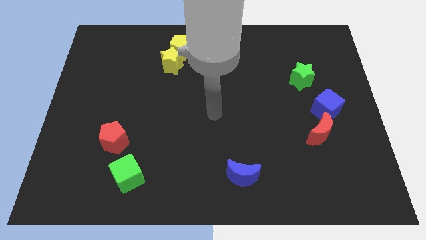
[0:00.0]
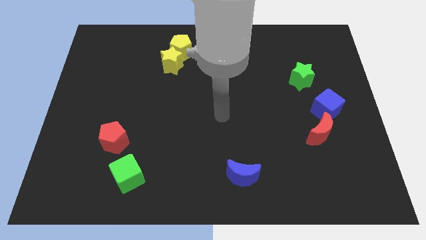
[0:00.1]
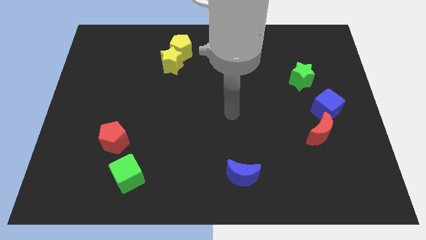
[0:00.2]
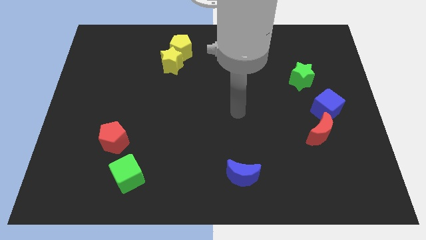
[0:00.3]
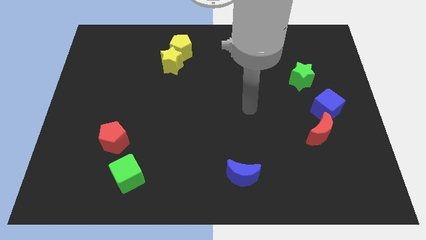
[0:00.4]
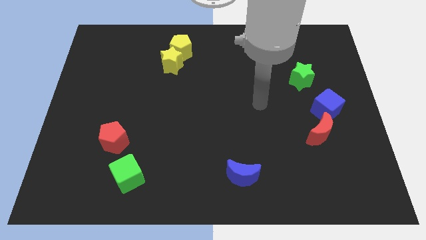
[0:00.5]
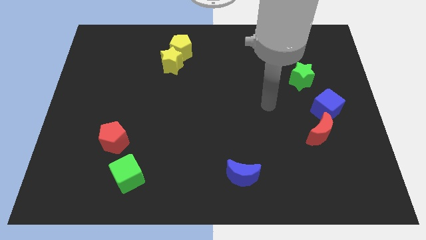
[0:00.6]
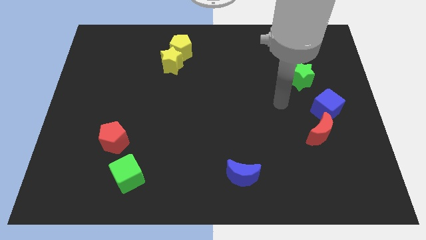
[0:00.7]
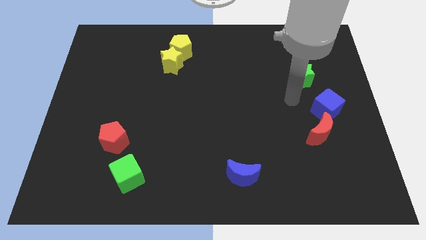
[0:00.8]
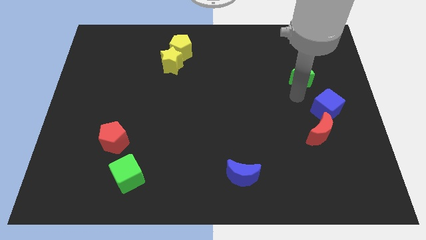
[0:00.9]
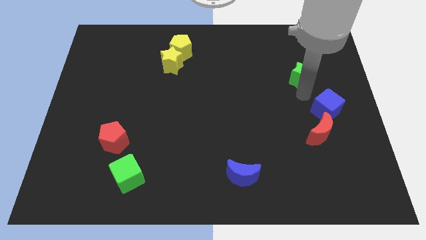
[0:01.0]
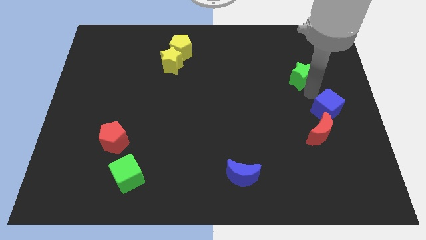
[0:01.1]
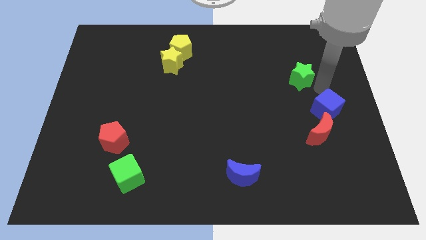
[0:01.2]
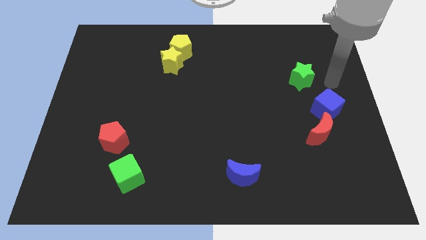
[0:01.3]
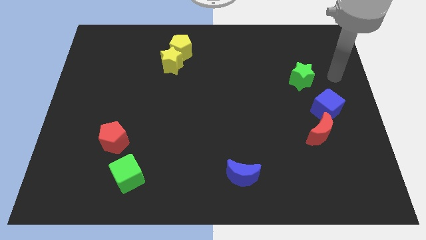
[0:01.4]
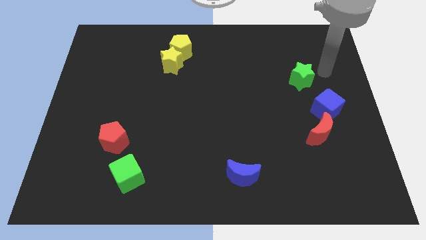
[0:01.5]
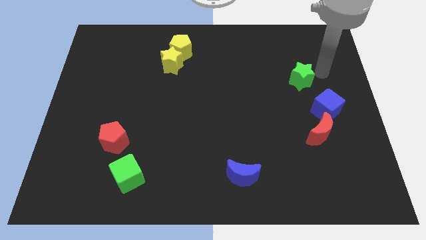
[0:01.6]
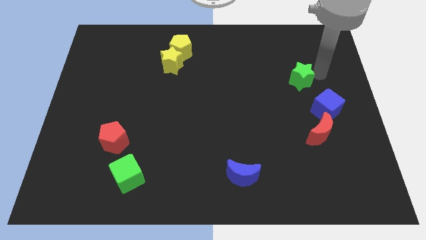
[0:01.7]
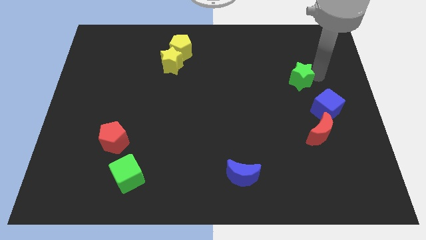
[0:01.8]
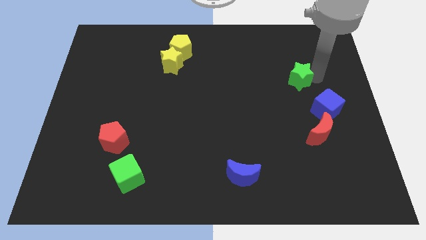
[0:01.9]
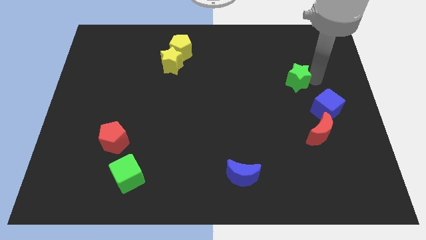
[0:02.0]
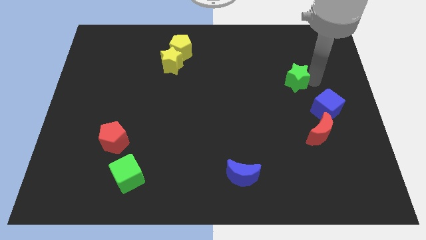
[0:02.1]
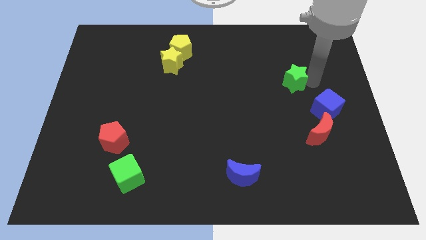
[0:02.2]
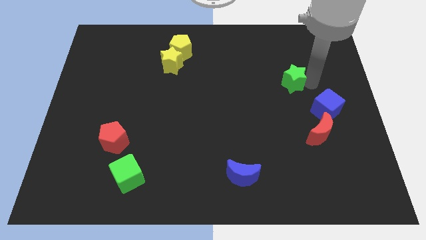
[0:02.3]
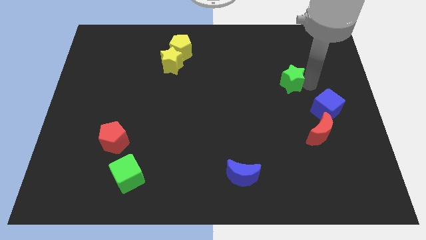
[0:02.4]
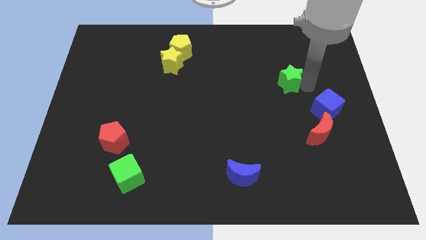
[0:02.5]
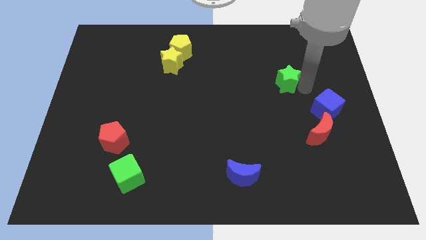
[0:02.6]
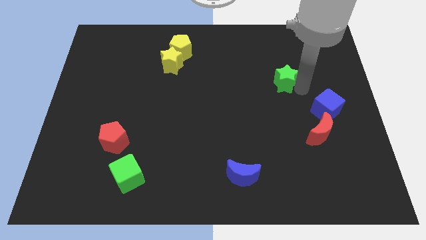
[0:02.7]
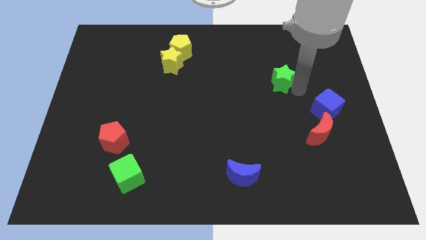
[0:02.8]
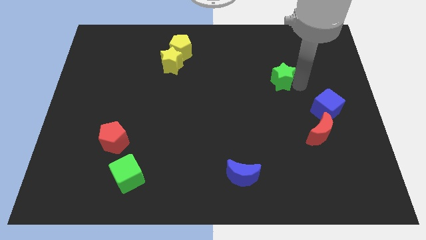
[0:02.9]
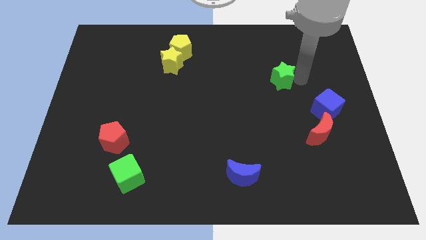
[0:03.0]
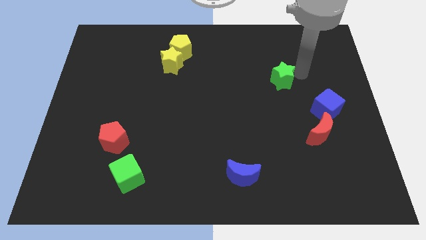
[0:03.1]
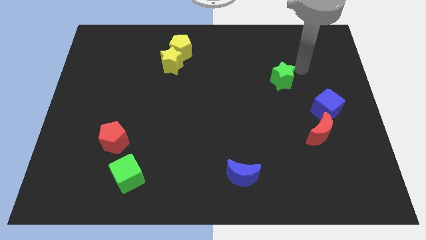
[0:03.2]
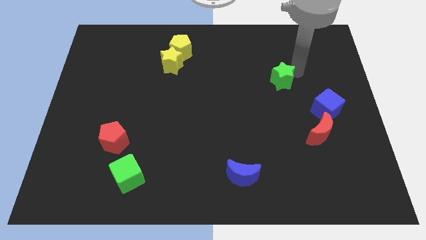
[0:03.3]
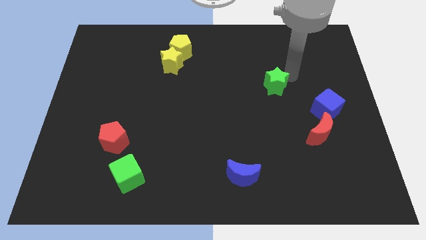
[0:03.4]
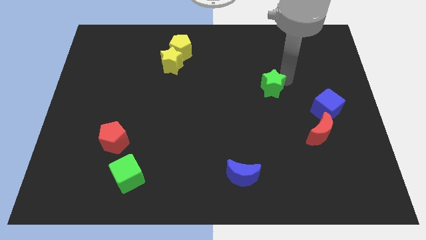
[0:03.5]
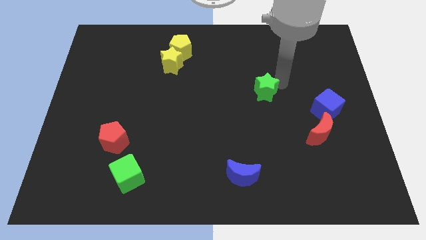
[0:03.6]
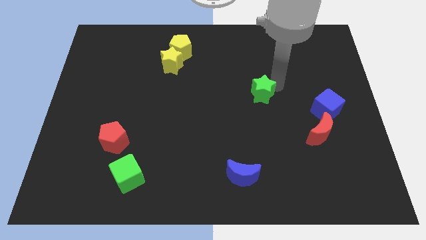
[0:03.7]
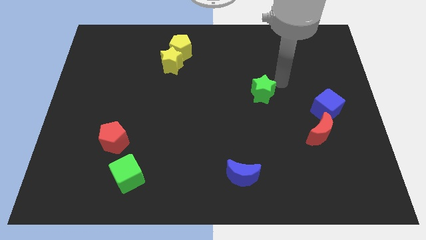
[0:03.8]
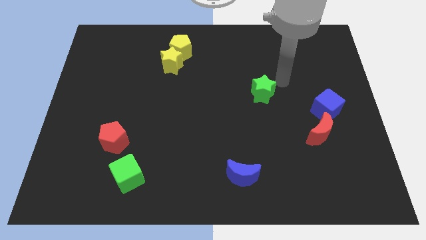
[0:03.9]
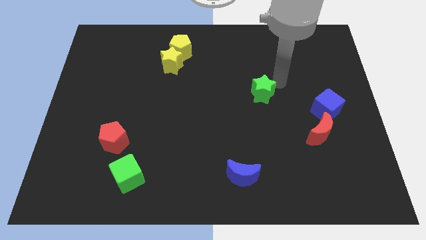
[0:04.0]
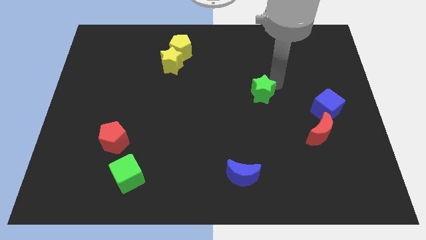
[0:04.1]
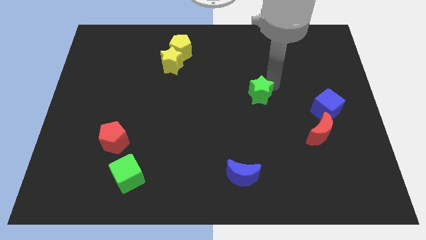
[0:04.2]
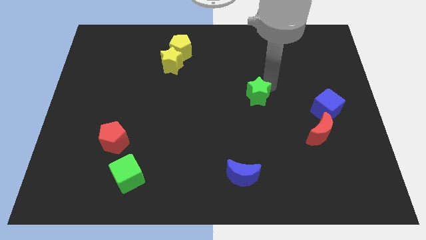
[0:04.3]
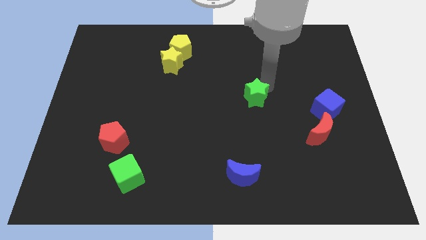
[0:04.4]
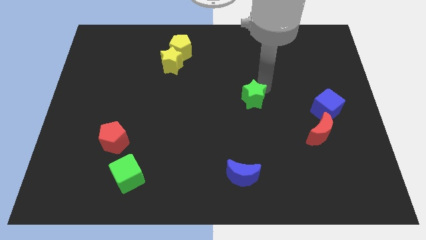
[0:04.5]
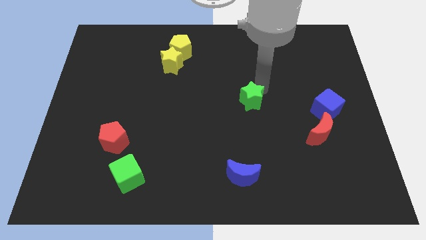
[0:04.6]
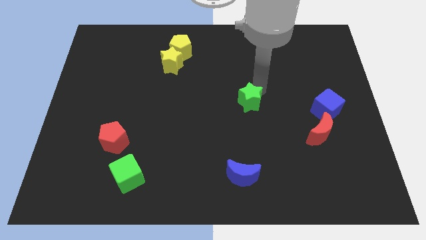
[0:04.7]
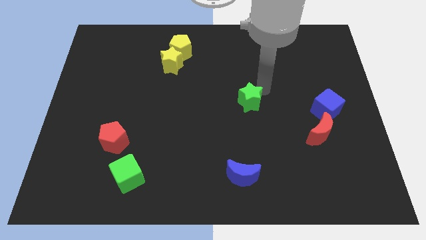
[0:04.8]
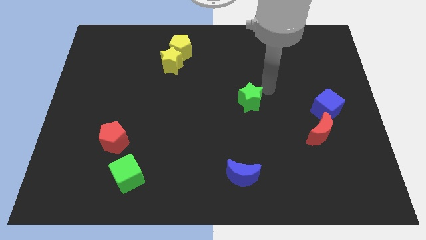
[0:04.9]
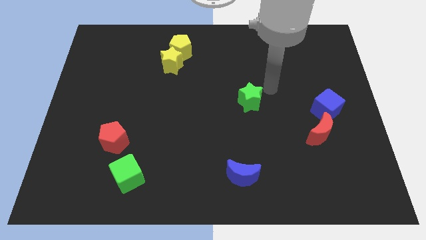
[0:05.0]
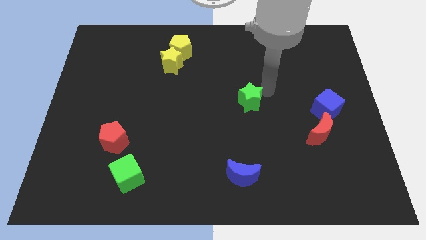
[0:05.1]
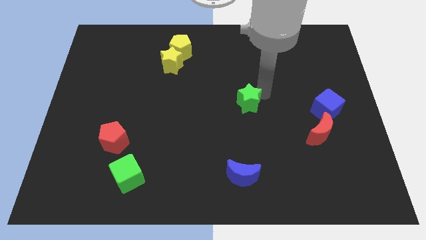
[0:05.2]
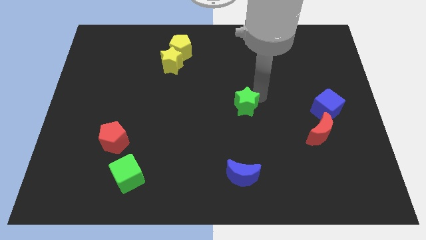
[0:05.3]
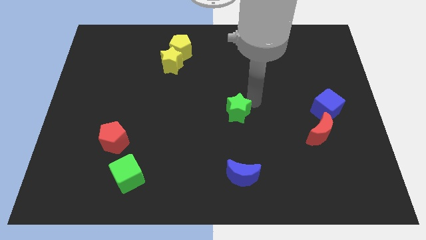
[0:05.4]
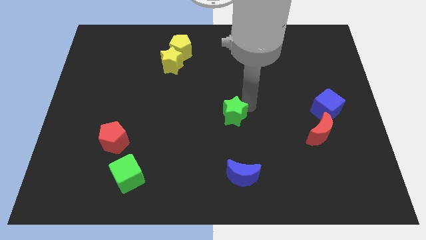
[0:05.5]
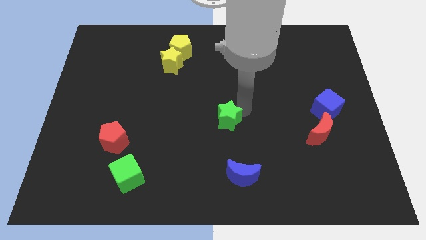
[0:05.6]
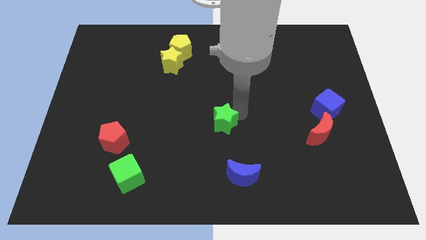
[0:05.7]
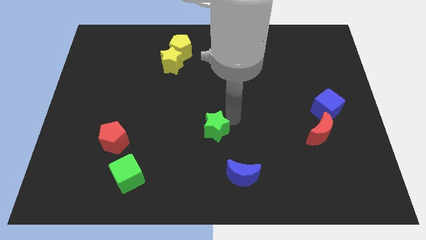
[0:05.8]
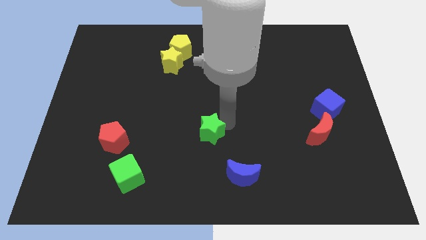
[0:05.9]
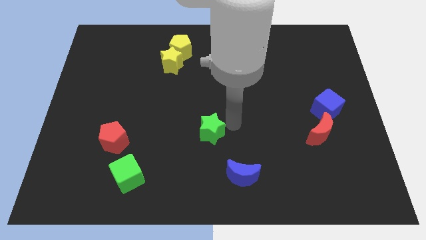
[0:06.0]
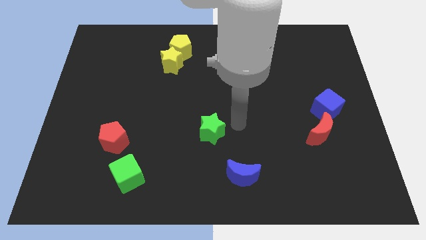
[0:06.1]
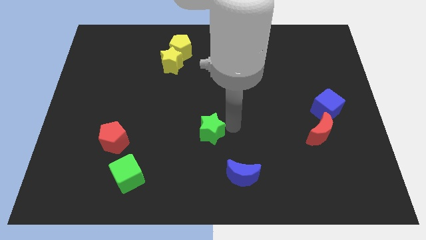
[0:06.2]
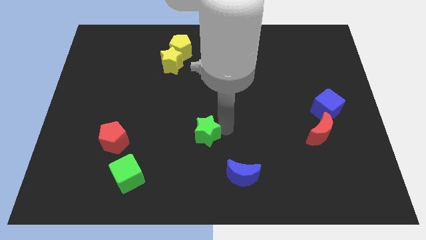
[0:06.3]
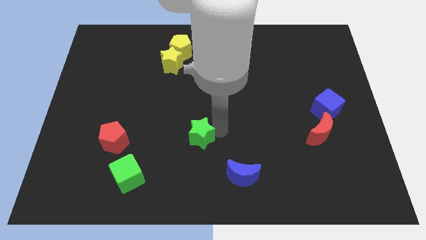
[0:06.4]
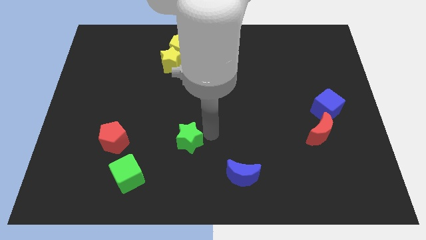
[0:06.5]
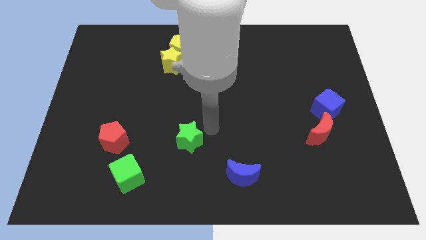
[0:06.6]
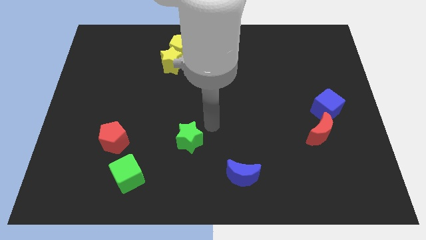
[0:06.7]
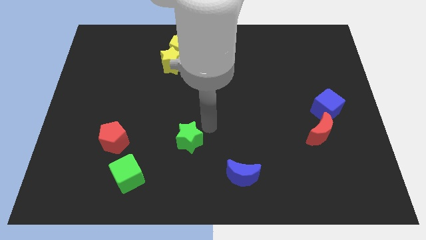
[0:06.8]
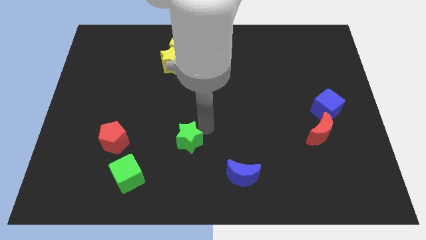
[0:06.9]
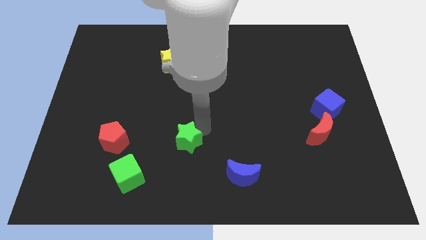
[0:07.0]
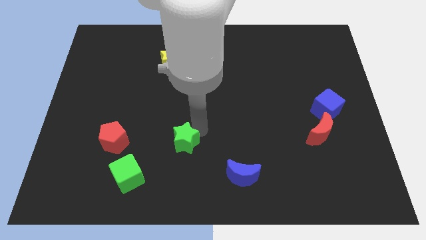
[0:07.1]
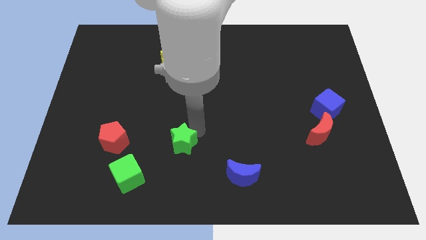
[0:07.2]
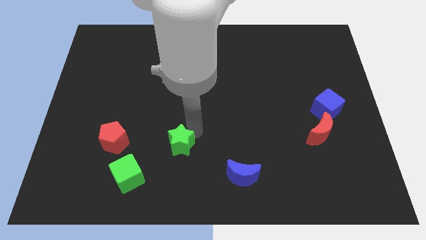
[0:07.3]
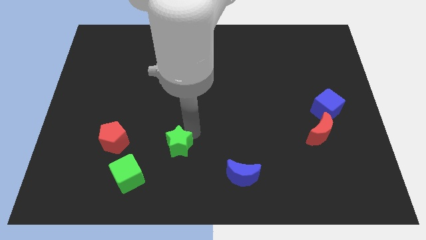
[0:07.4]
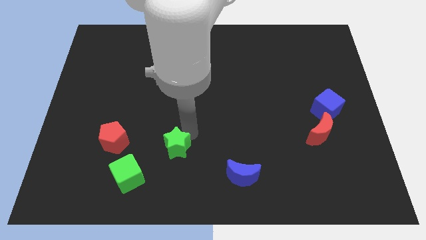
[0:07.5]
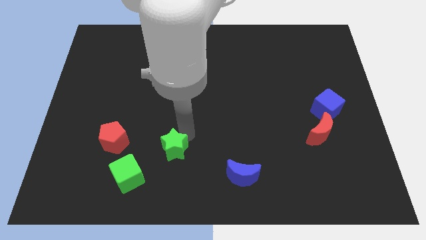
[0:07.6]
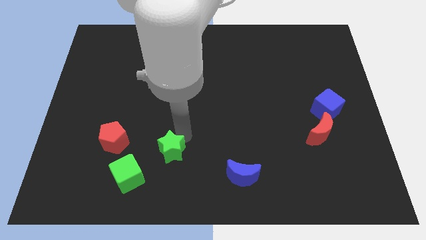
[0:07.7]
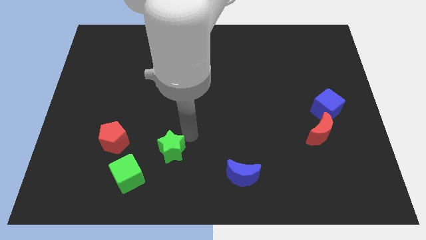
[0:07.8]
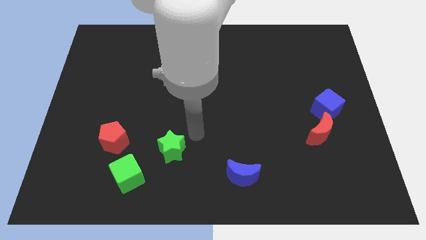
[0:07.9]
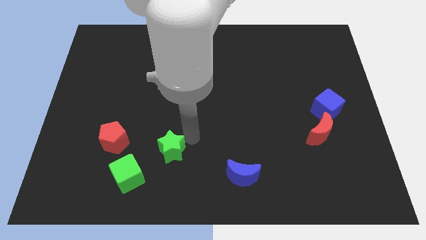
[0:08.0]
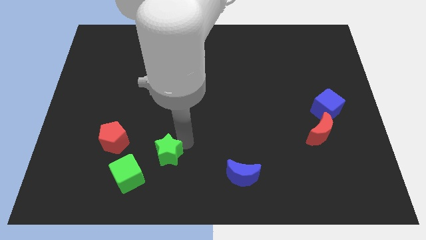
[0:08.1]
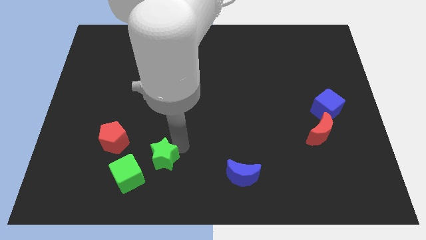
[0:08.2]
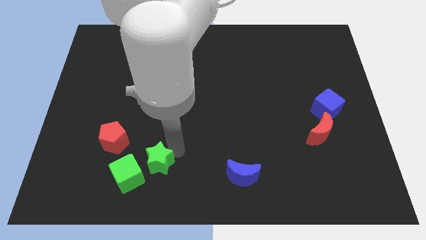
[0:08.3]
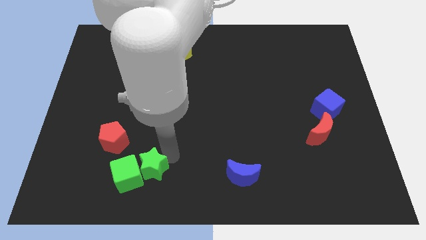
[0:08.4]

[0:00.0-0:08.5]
move the green star close to the green cube
